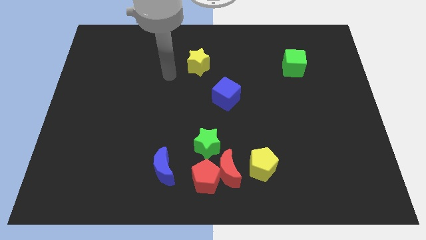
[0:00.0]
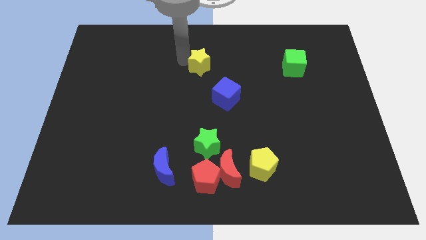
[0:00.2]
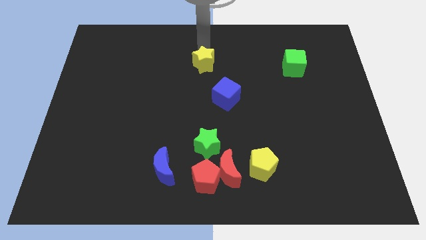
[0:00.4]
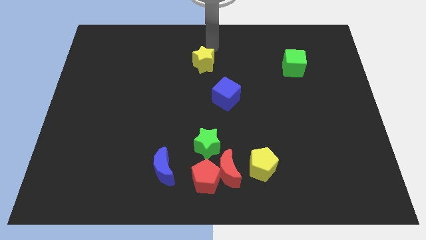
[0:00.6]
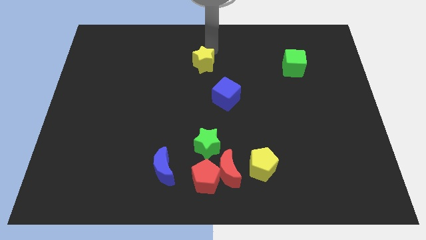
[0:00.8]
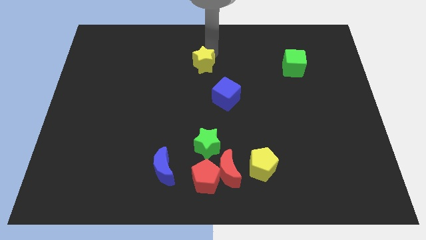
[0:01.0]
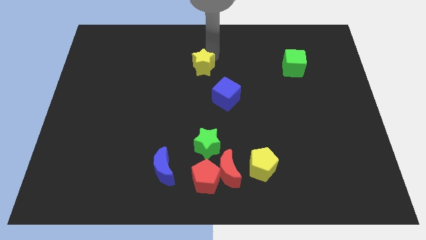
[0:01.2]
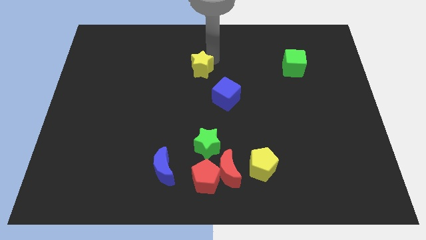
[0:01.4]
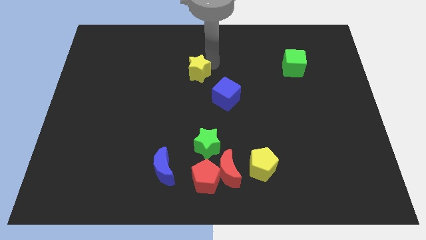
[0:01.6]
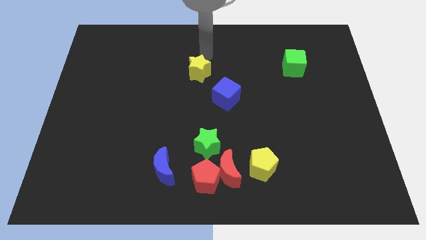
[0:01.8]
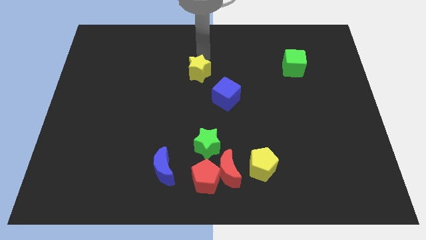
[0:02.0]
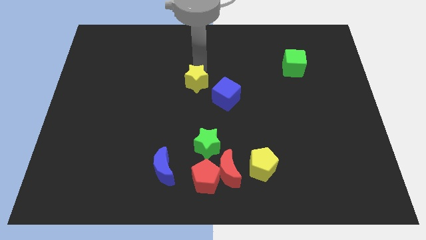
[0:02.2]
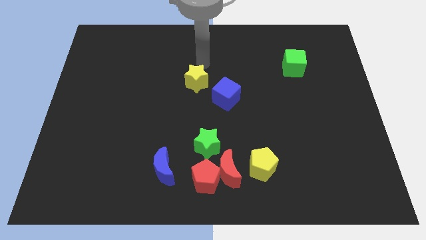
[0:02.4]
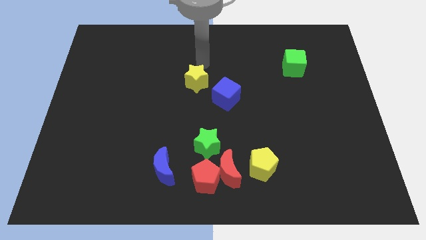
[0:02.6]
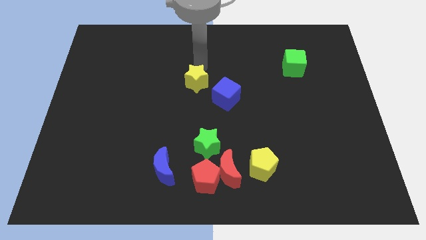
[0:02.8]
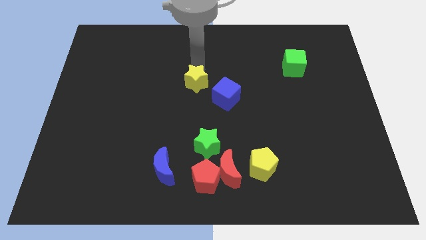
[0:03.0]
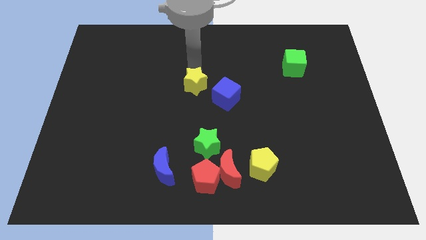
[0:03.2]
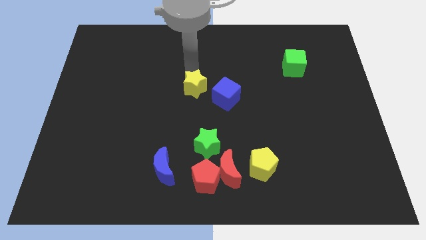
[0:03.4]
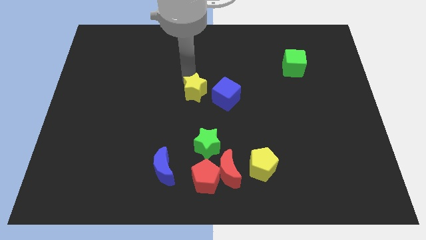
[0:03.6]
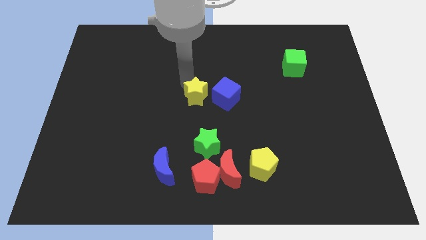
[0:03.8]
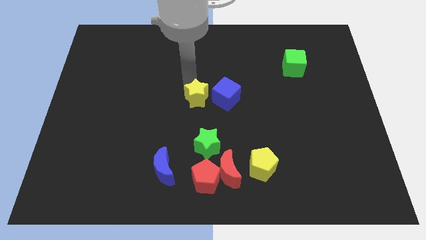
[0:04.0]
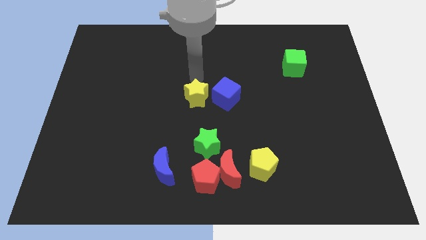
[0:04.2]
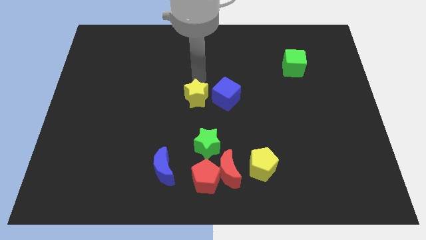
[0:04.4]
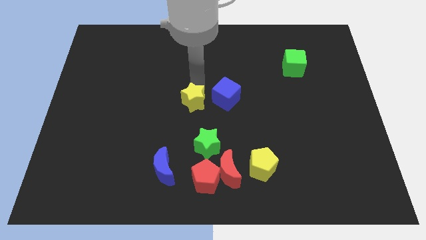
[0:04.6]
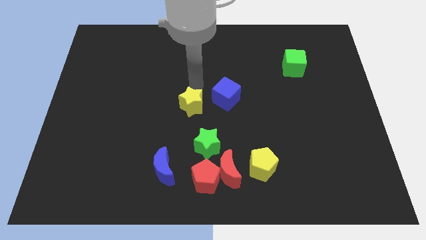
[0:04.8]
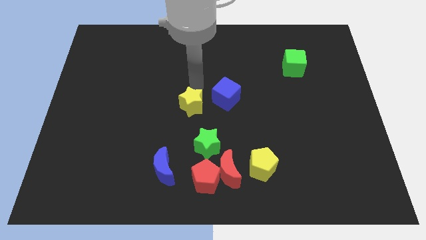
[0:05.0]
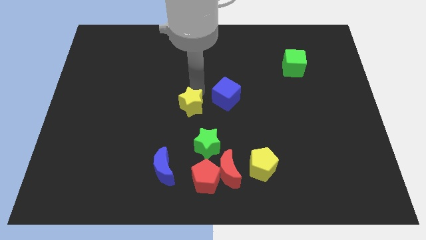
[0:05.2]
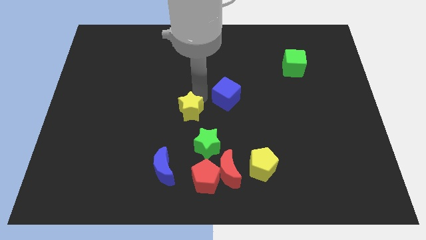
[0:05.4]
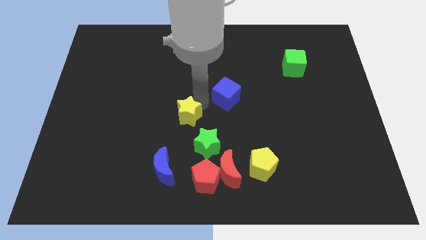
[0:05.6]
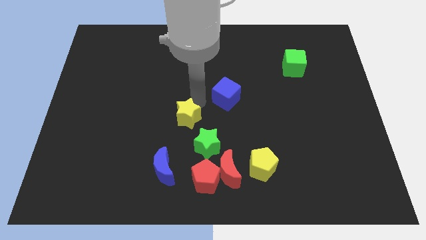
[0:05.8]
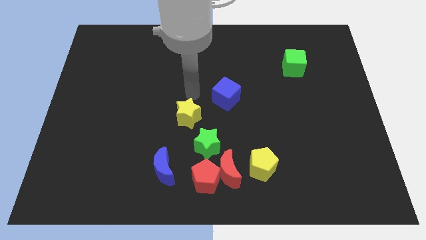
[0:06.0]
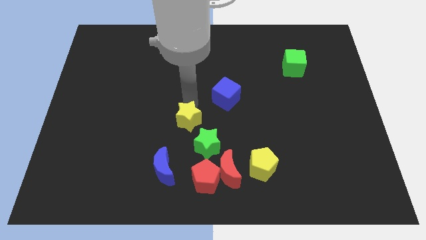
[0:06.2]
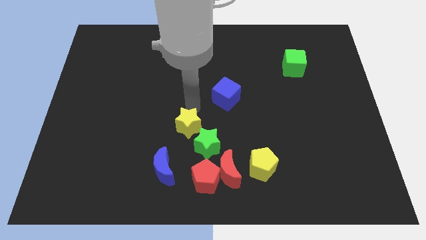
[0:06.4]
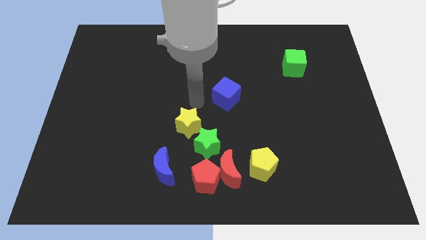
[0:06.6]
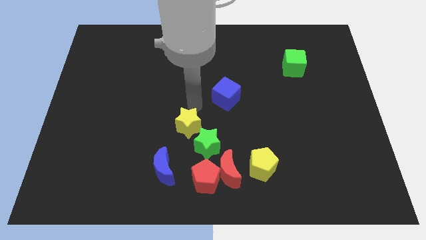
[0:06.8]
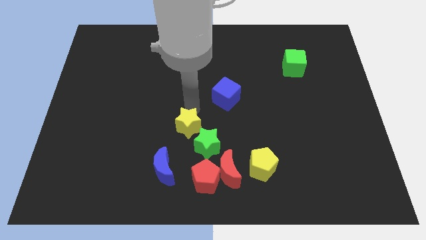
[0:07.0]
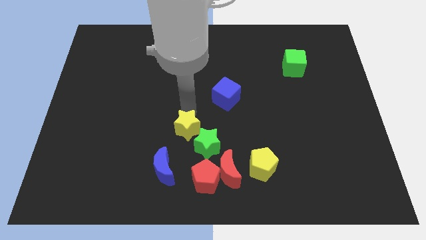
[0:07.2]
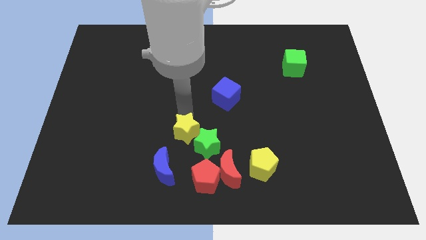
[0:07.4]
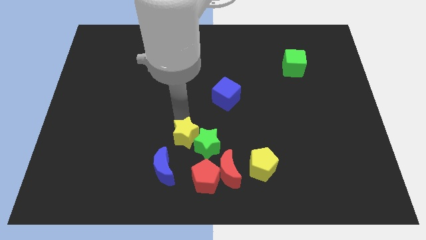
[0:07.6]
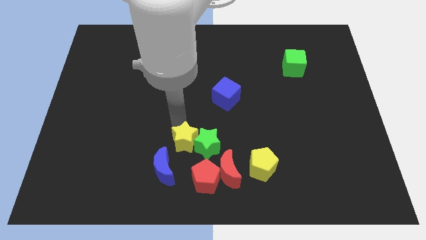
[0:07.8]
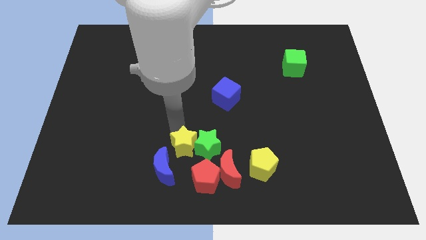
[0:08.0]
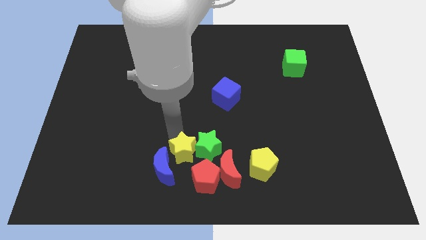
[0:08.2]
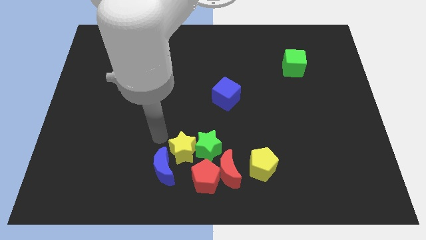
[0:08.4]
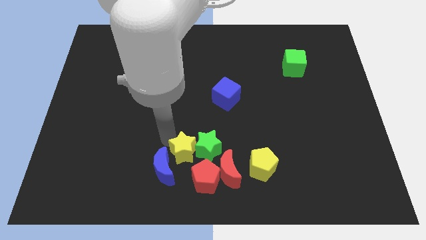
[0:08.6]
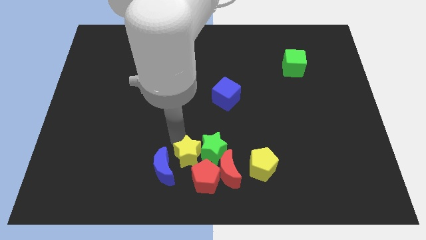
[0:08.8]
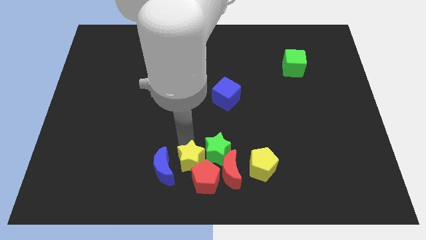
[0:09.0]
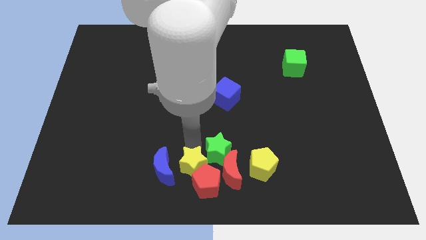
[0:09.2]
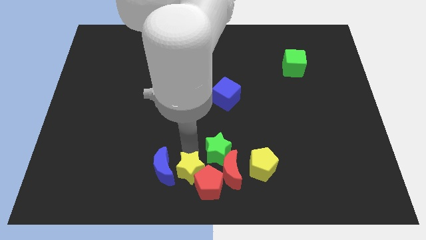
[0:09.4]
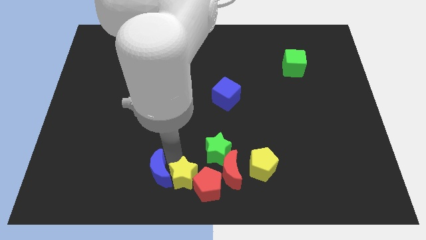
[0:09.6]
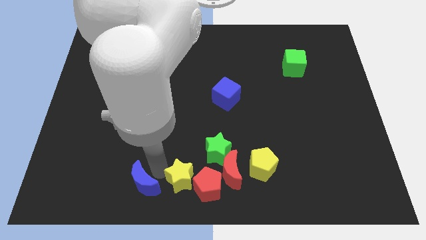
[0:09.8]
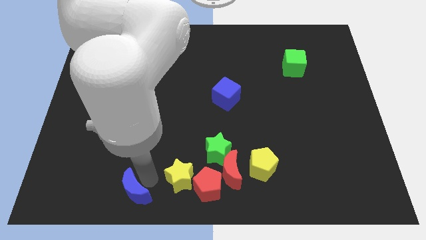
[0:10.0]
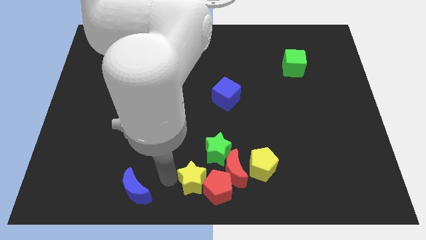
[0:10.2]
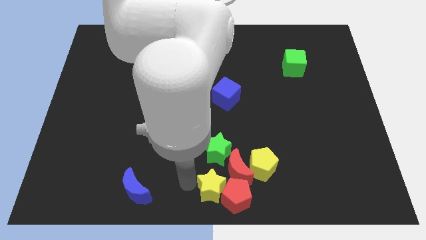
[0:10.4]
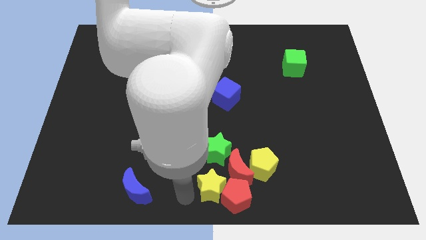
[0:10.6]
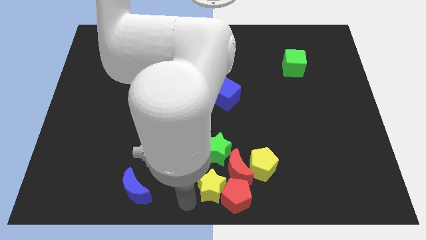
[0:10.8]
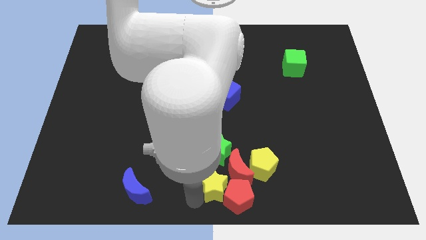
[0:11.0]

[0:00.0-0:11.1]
move the yellow star close to the red moon

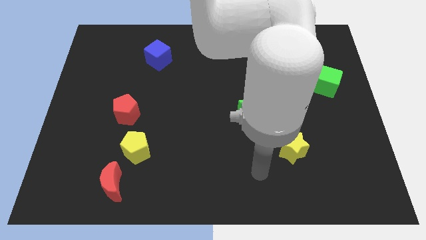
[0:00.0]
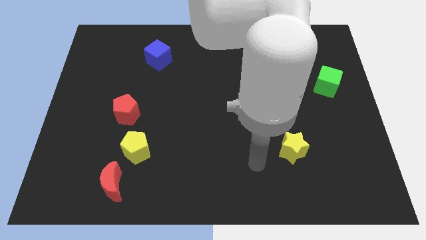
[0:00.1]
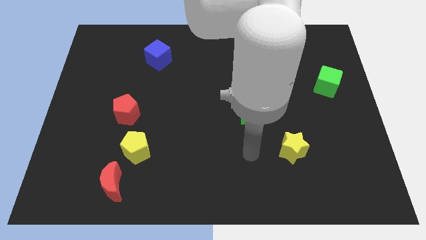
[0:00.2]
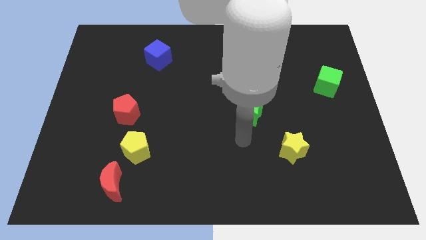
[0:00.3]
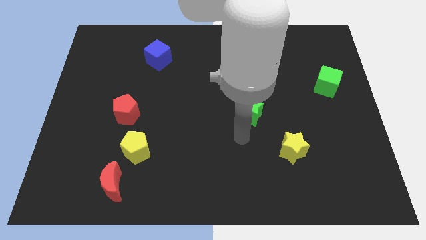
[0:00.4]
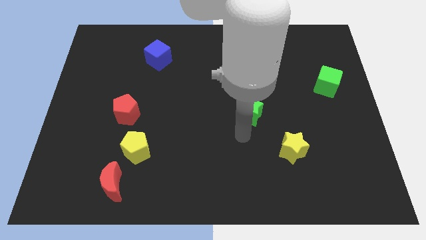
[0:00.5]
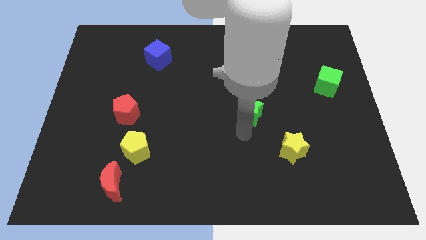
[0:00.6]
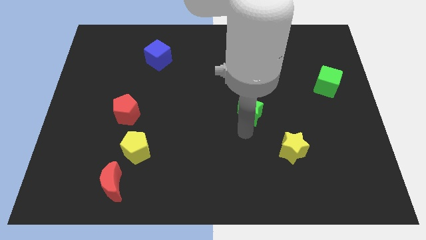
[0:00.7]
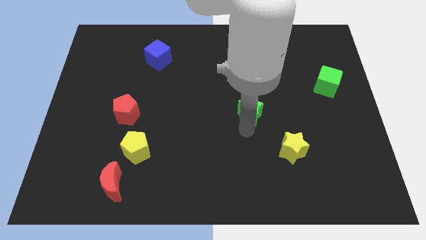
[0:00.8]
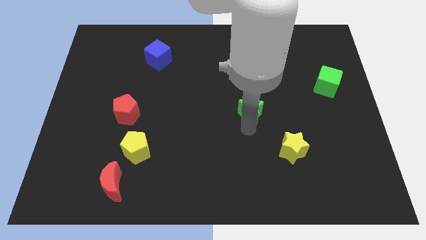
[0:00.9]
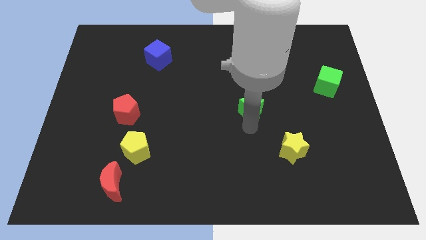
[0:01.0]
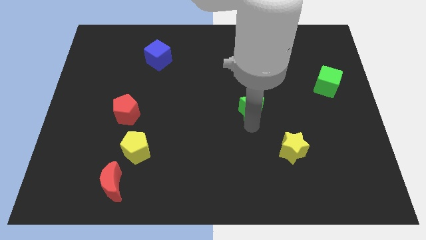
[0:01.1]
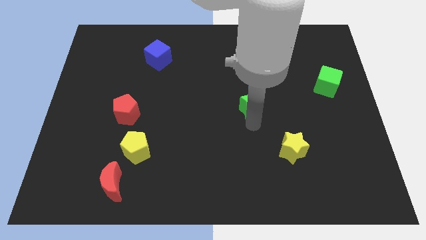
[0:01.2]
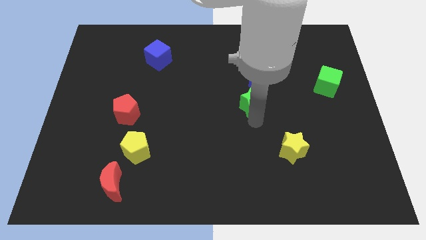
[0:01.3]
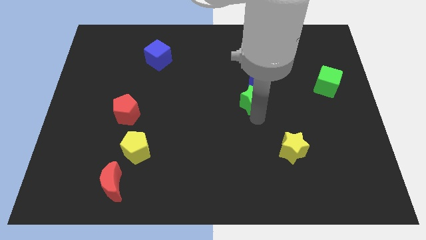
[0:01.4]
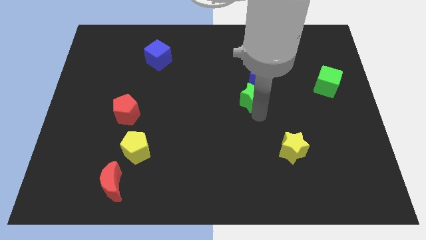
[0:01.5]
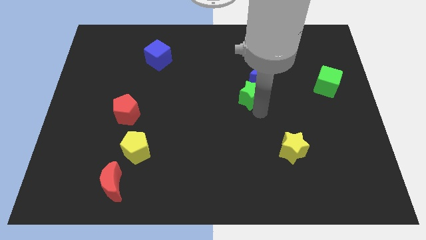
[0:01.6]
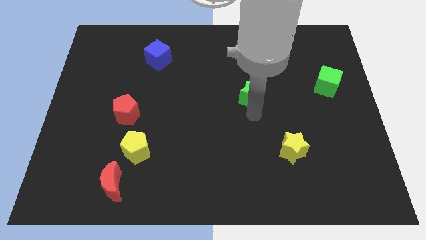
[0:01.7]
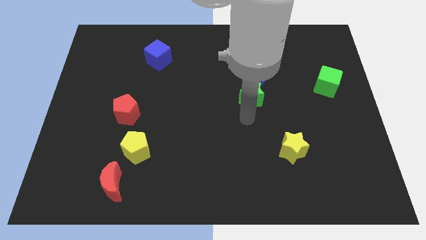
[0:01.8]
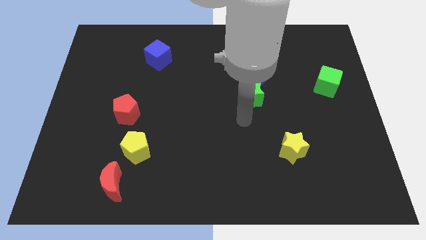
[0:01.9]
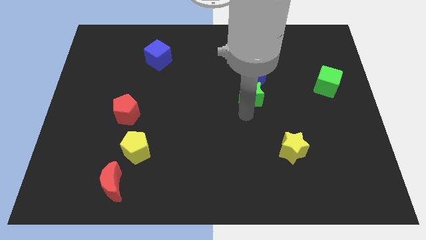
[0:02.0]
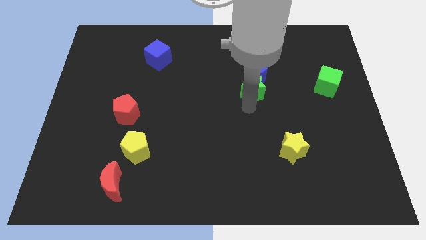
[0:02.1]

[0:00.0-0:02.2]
slide the green star close to the blue moon

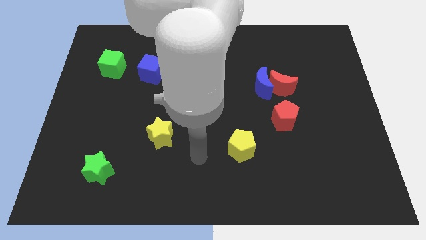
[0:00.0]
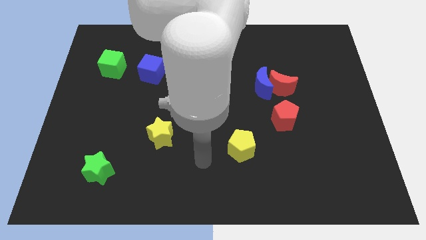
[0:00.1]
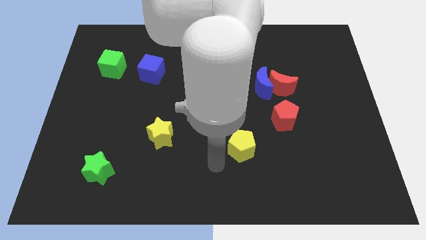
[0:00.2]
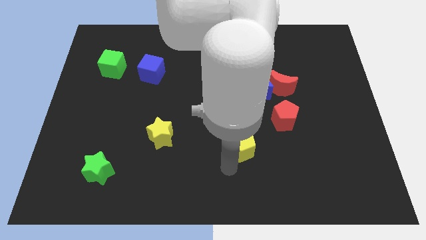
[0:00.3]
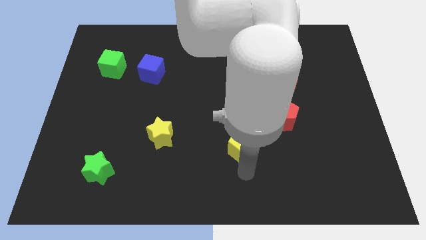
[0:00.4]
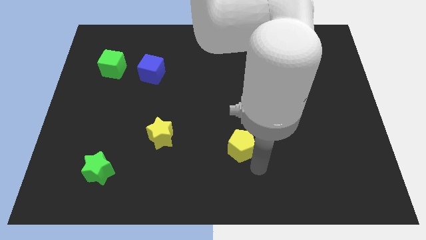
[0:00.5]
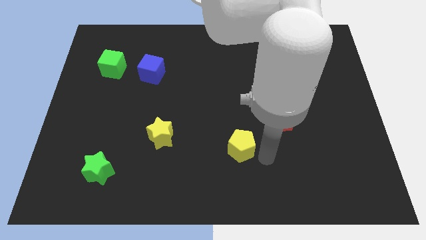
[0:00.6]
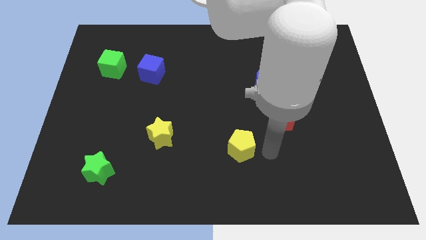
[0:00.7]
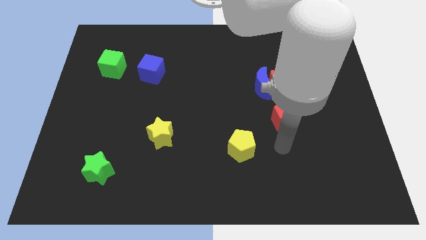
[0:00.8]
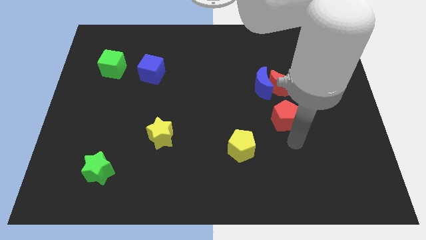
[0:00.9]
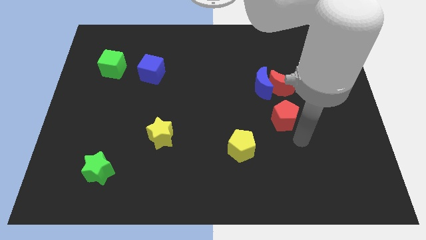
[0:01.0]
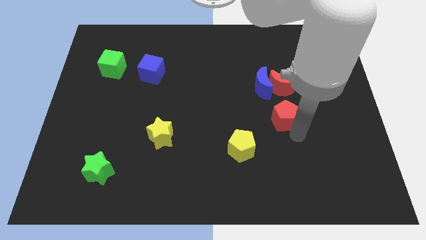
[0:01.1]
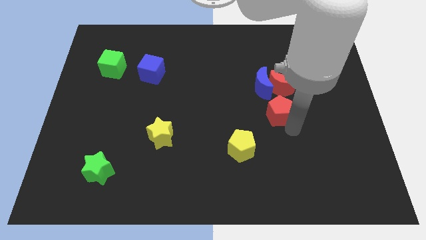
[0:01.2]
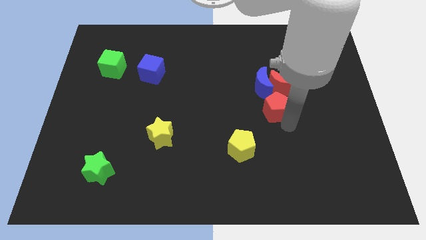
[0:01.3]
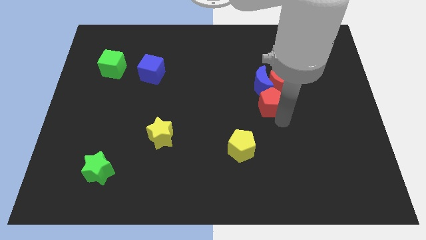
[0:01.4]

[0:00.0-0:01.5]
slide the red pentagon to the red moon
